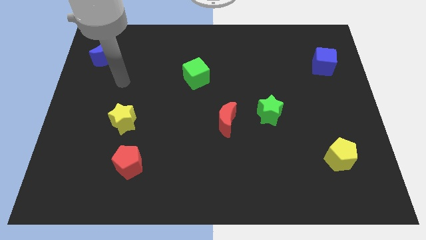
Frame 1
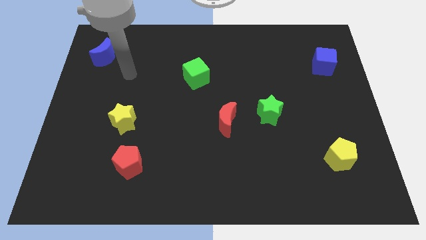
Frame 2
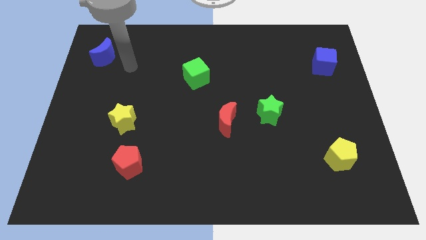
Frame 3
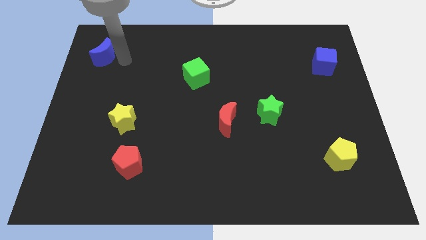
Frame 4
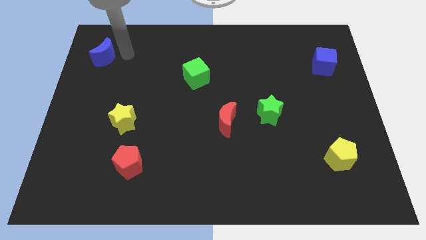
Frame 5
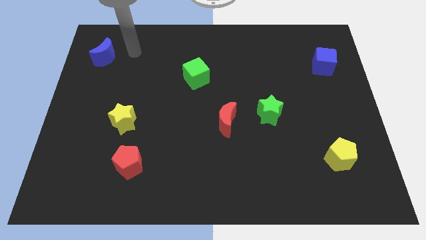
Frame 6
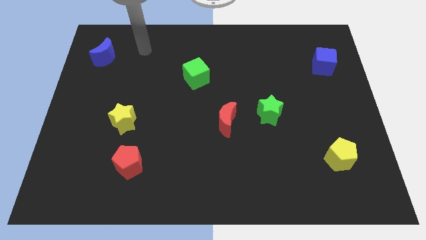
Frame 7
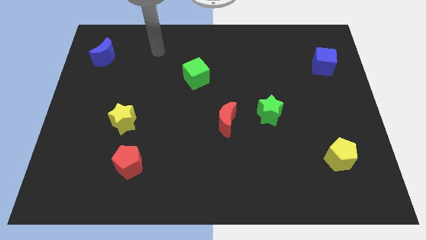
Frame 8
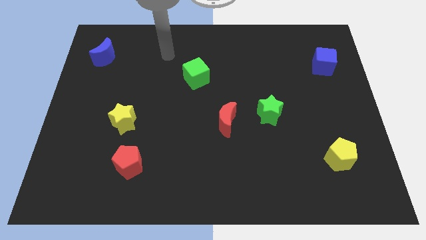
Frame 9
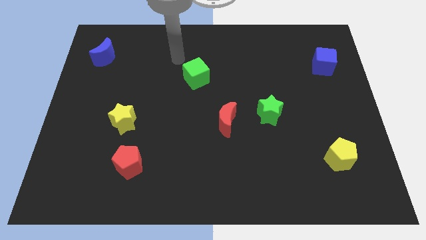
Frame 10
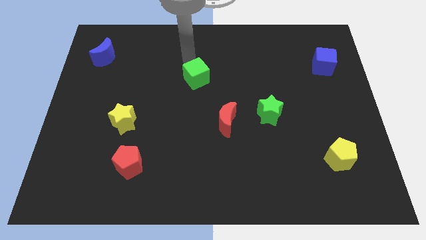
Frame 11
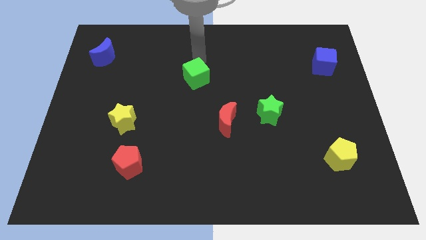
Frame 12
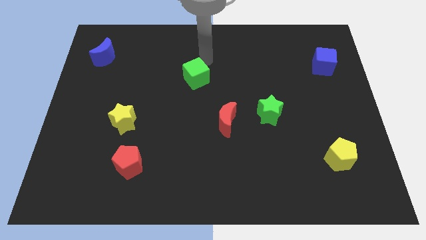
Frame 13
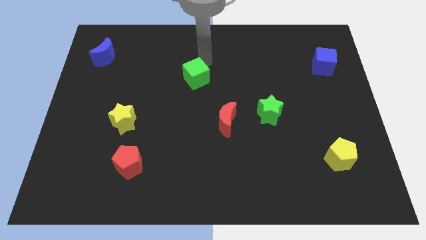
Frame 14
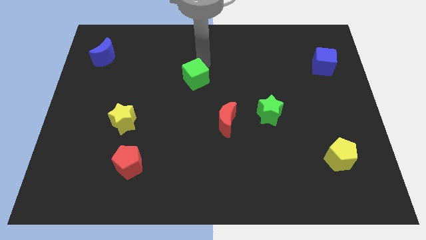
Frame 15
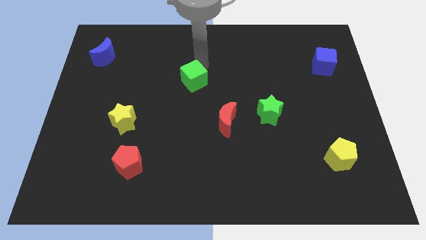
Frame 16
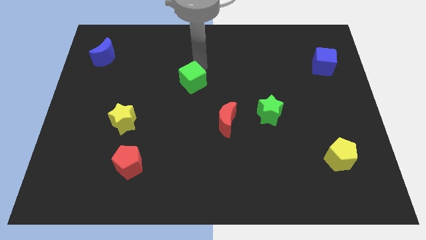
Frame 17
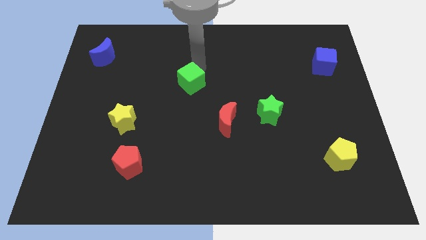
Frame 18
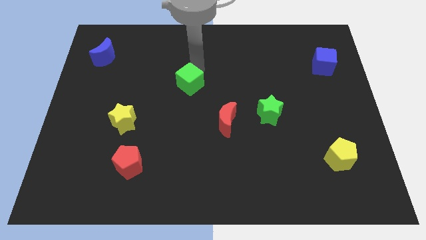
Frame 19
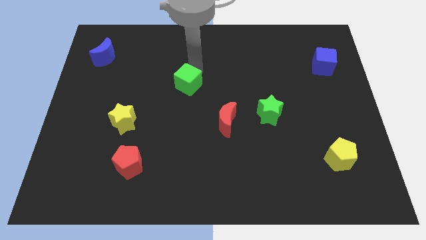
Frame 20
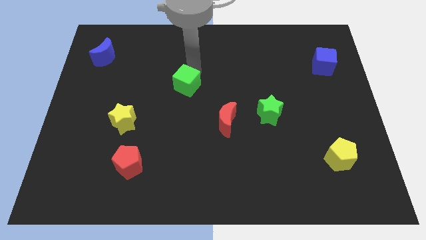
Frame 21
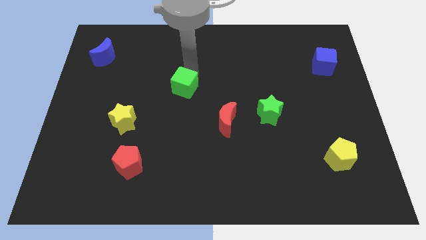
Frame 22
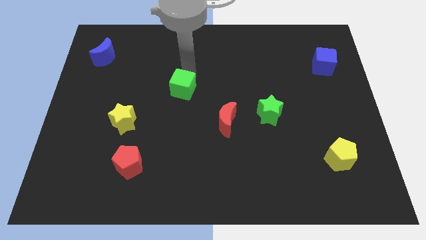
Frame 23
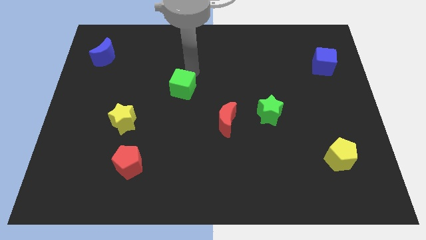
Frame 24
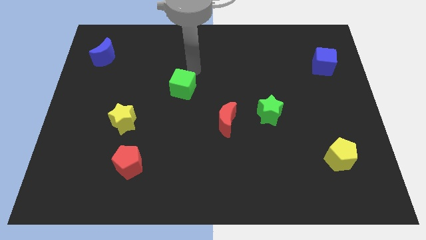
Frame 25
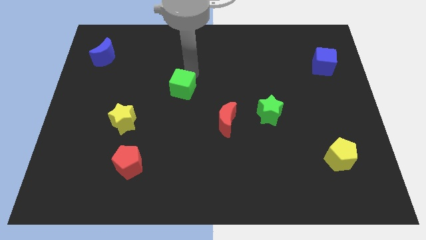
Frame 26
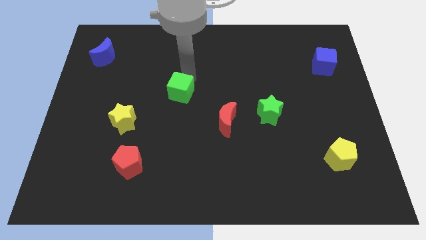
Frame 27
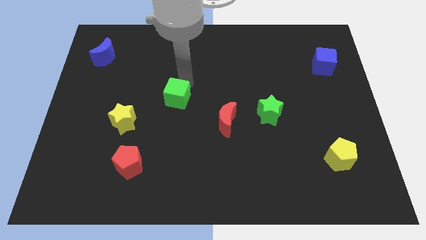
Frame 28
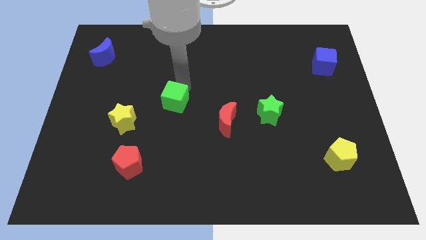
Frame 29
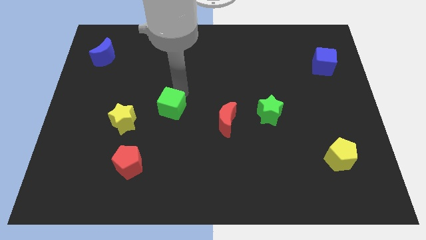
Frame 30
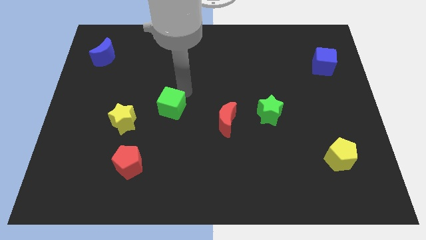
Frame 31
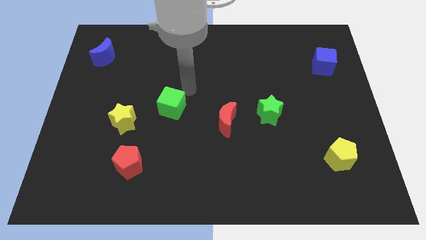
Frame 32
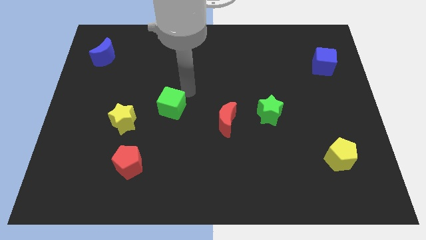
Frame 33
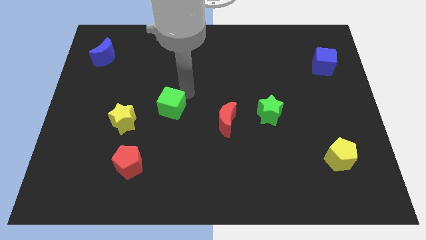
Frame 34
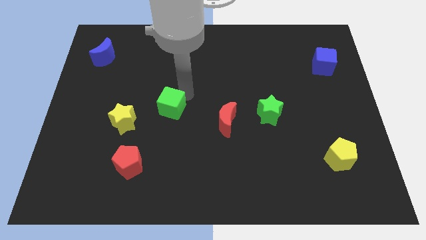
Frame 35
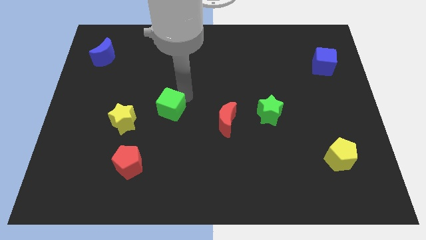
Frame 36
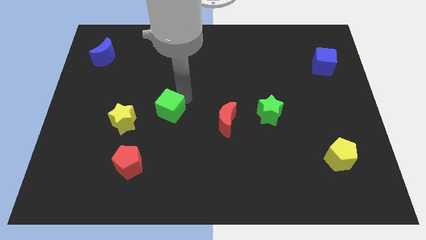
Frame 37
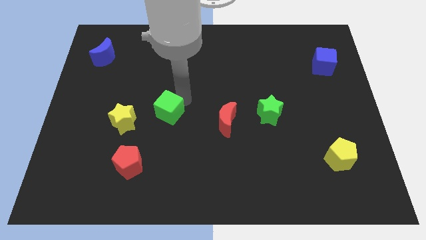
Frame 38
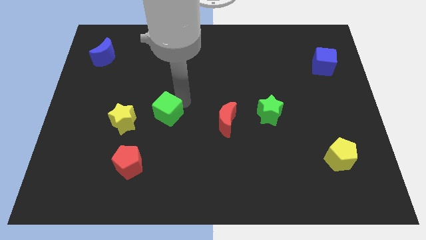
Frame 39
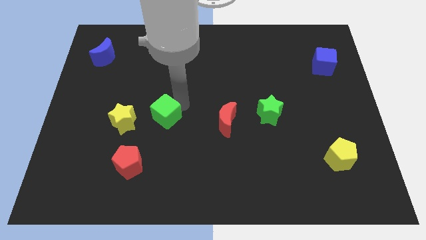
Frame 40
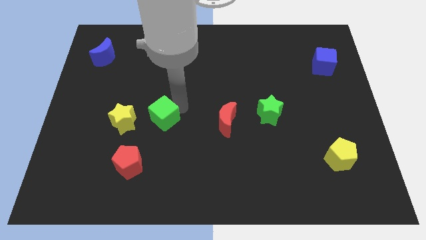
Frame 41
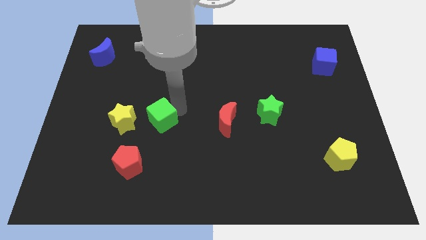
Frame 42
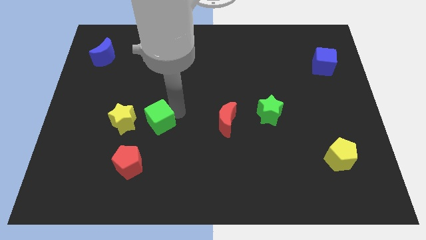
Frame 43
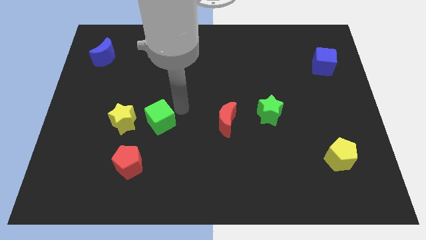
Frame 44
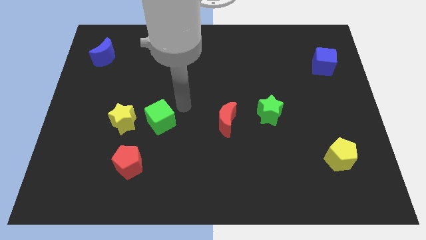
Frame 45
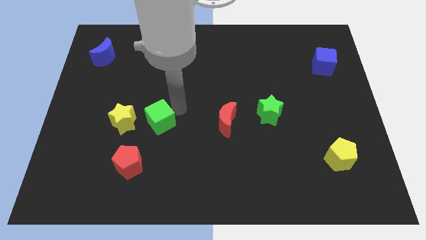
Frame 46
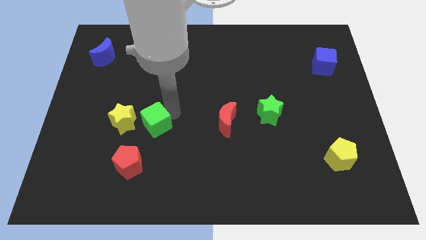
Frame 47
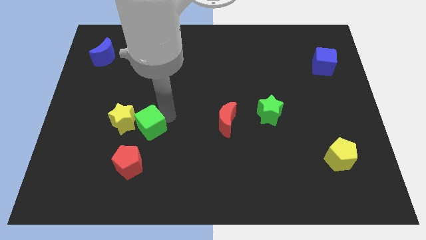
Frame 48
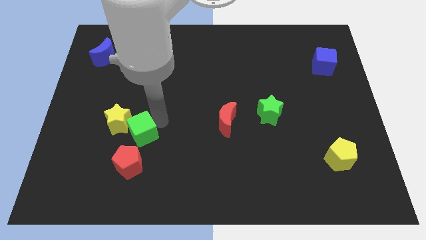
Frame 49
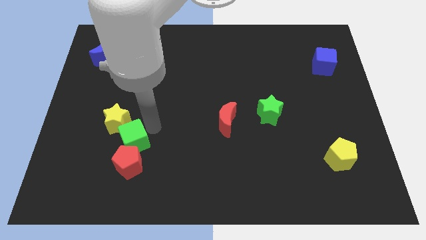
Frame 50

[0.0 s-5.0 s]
slide the green cube to the top left side of the red pentagon

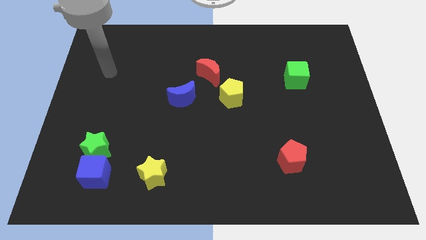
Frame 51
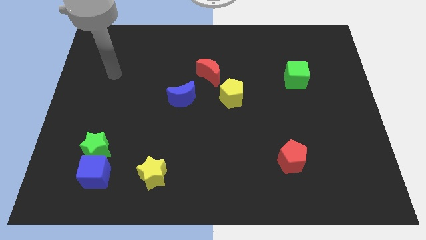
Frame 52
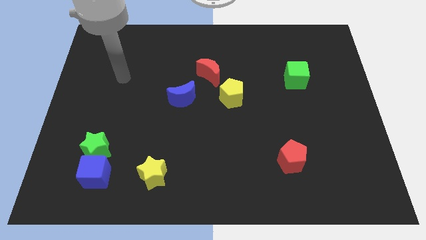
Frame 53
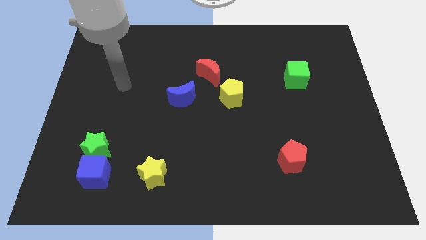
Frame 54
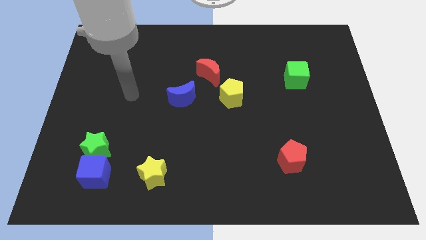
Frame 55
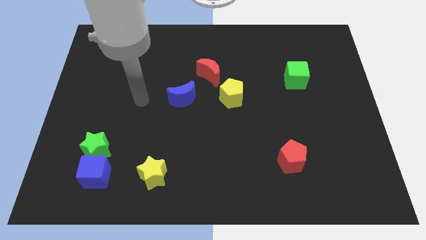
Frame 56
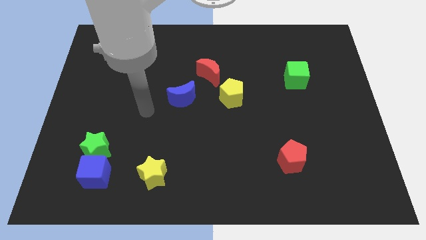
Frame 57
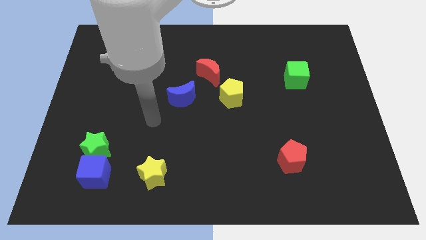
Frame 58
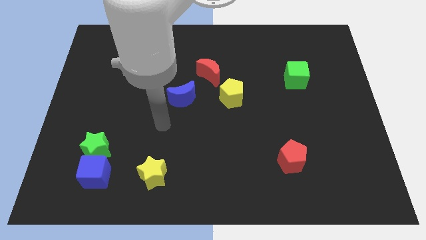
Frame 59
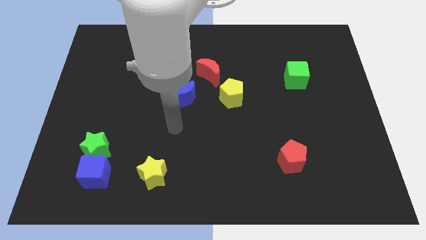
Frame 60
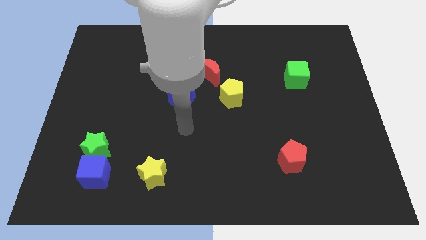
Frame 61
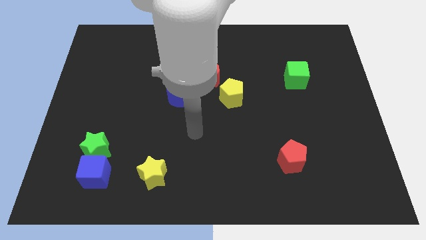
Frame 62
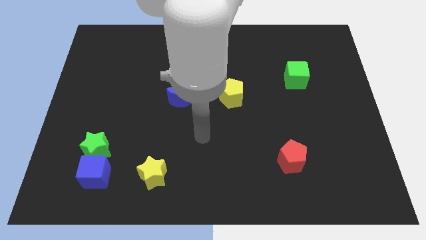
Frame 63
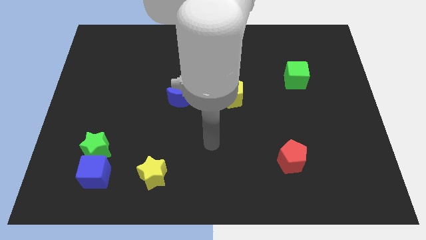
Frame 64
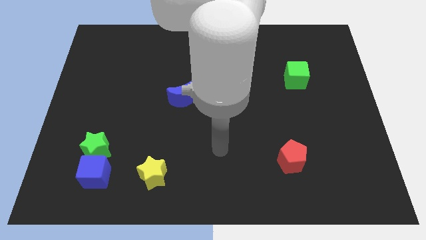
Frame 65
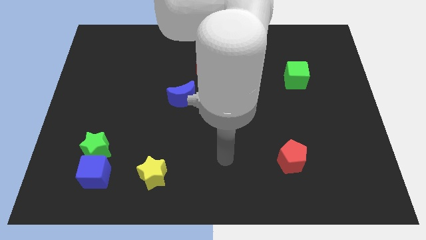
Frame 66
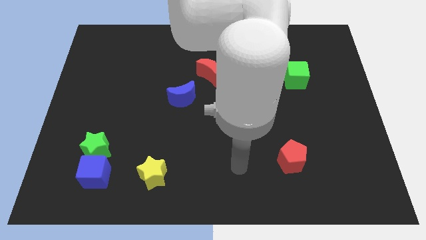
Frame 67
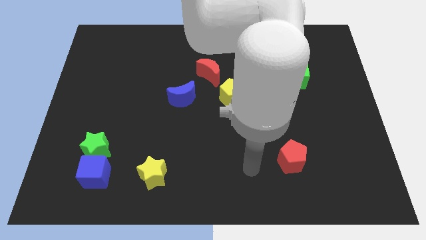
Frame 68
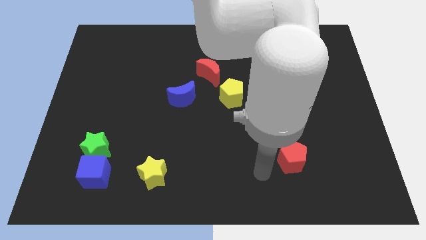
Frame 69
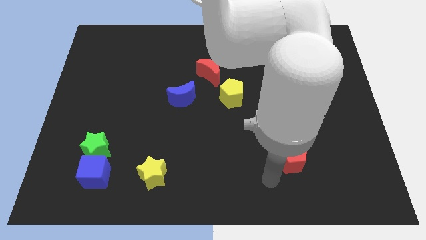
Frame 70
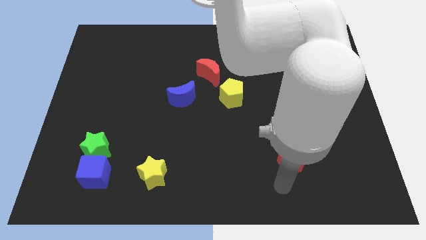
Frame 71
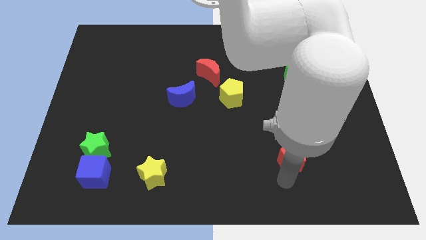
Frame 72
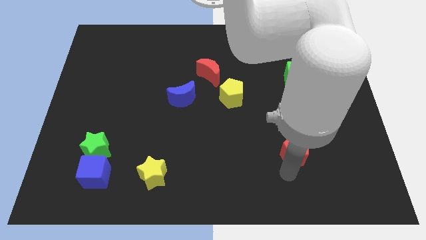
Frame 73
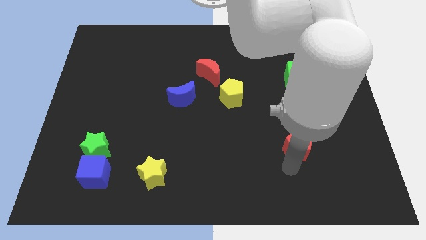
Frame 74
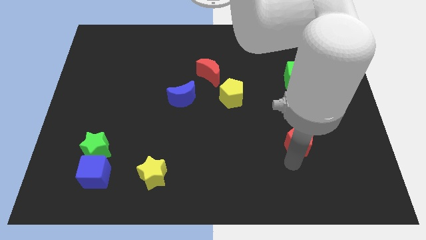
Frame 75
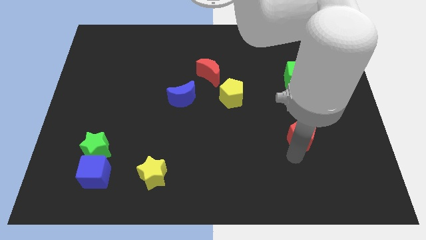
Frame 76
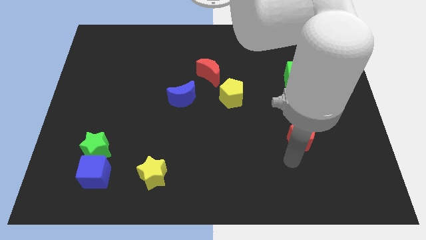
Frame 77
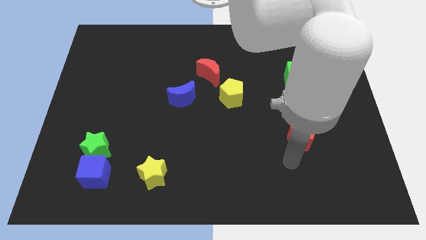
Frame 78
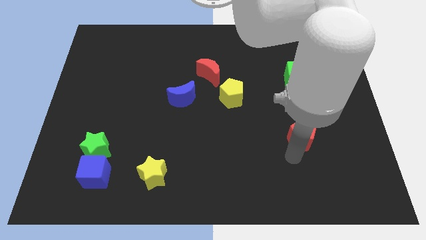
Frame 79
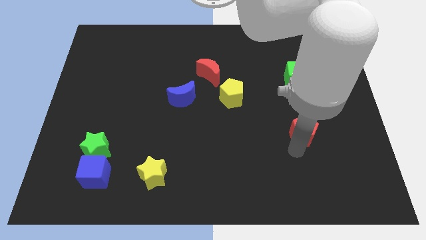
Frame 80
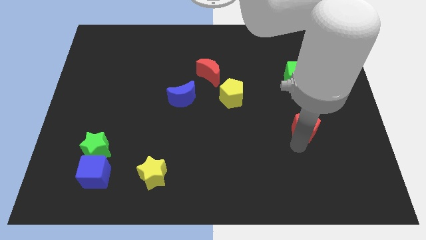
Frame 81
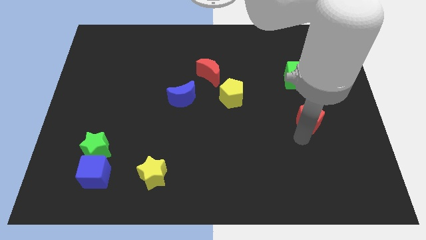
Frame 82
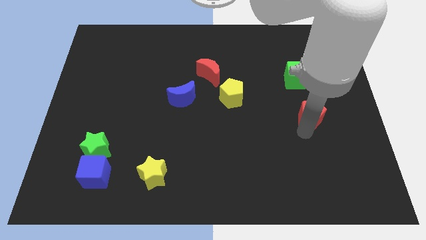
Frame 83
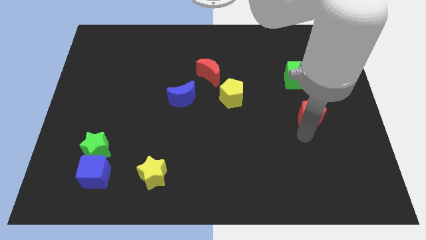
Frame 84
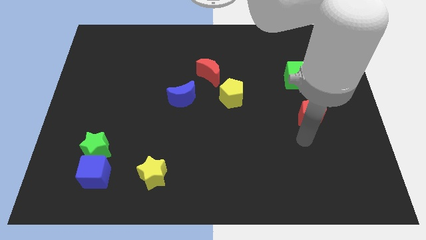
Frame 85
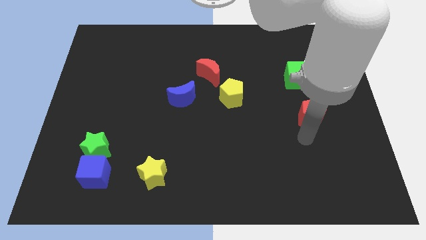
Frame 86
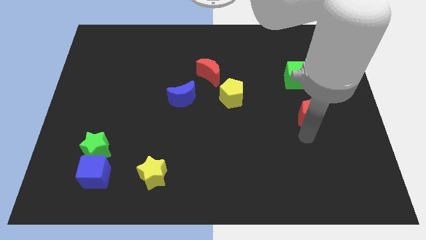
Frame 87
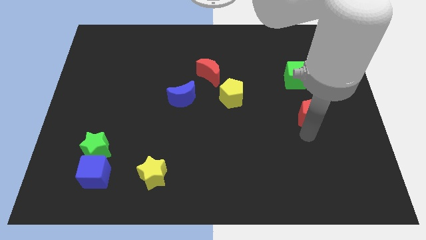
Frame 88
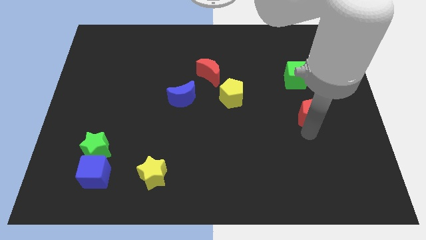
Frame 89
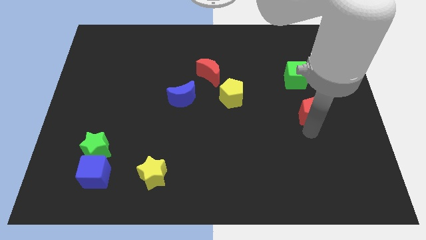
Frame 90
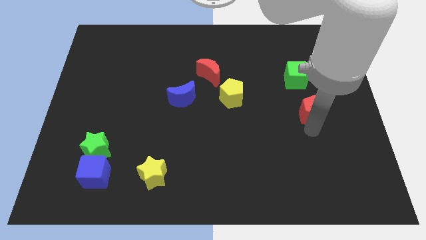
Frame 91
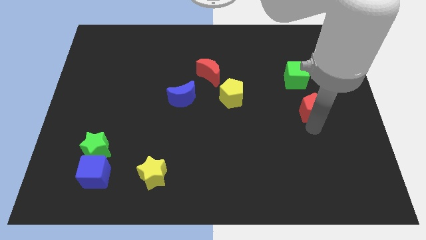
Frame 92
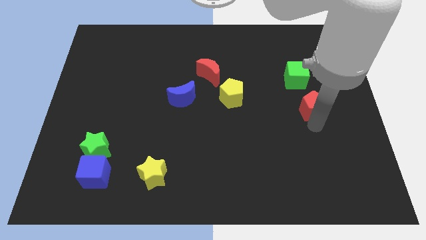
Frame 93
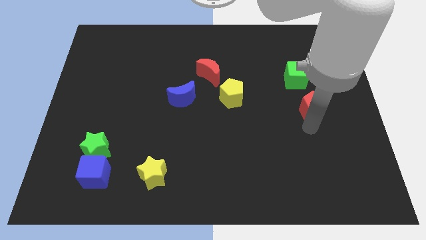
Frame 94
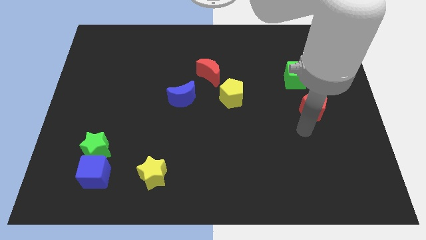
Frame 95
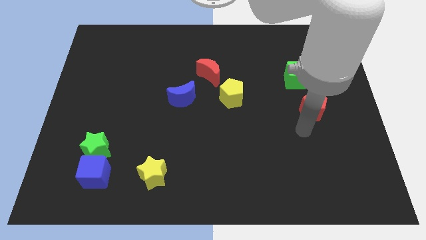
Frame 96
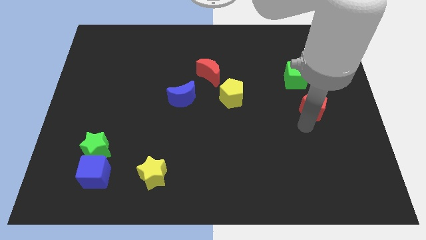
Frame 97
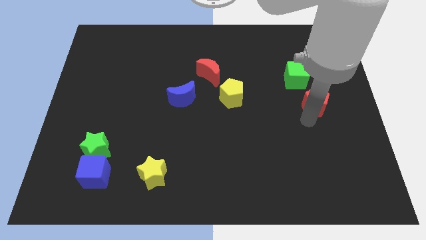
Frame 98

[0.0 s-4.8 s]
move the red pentagon to the bottom right of the green cube
